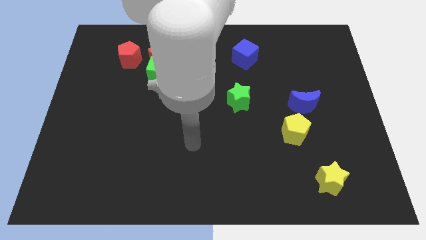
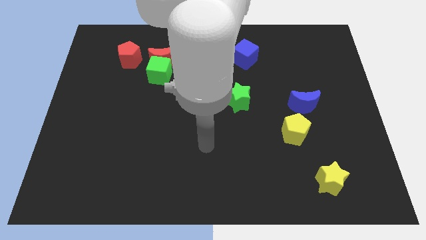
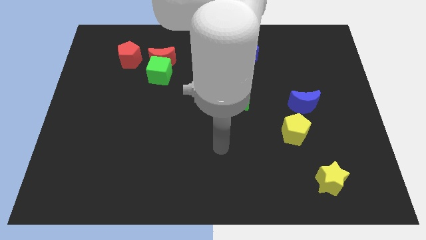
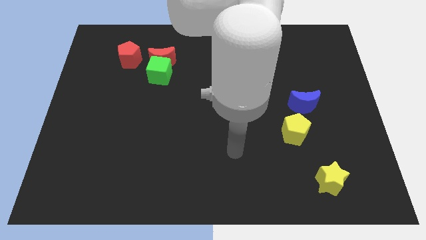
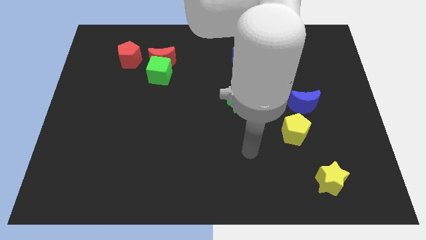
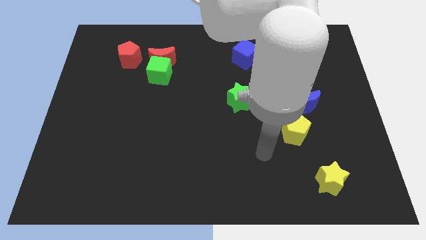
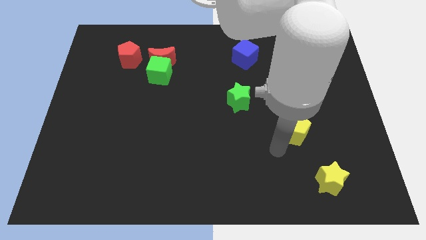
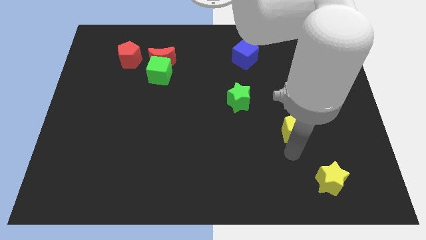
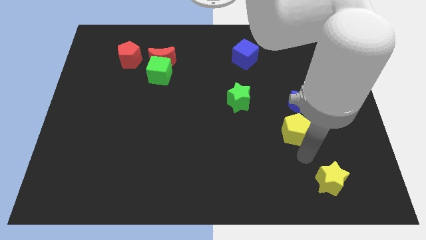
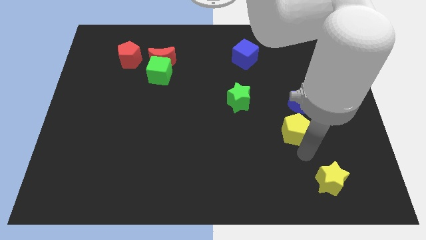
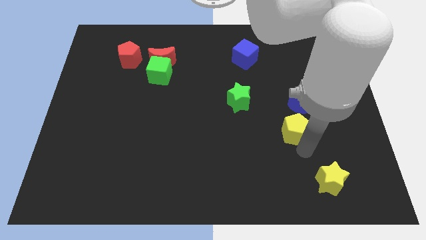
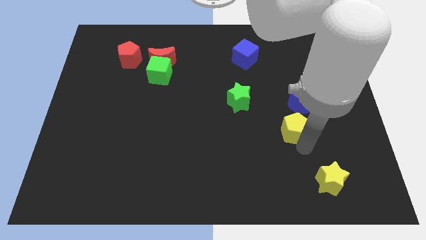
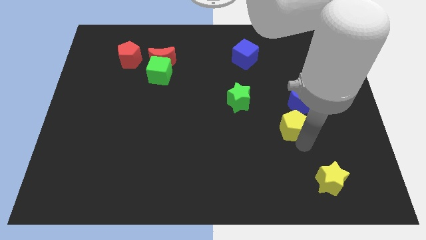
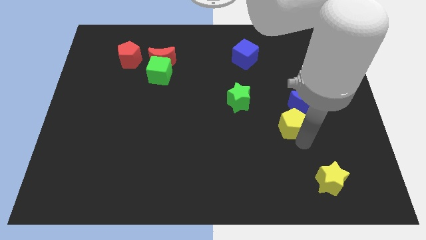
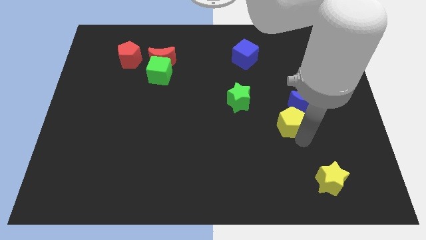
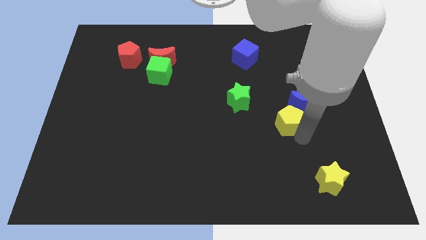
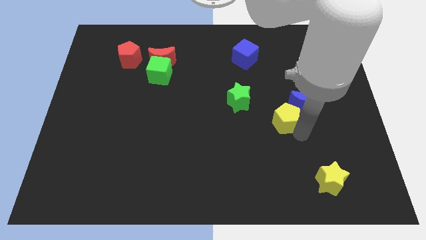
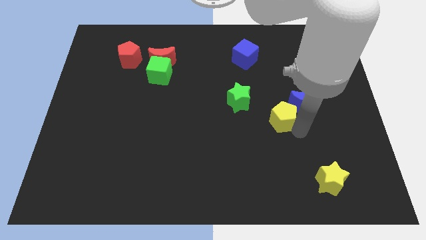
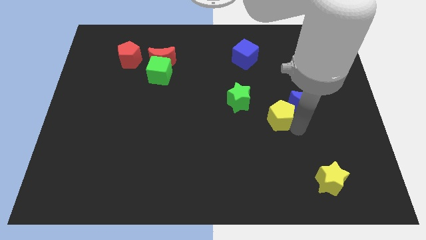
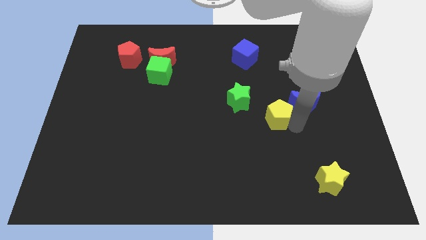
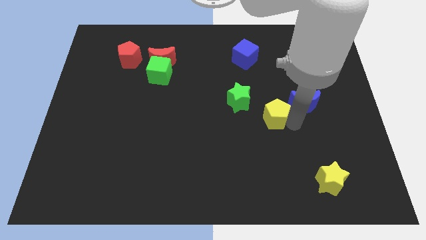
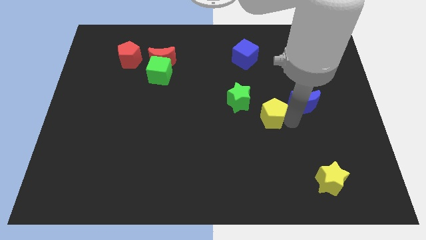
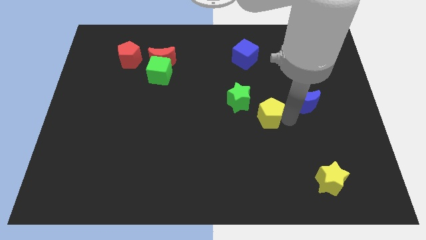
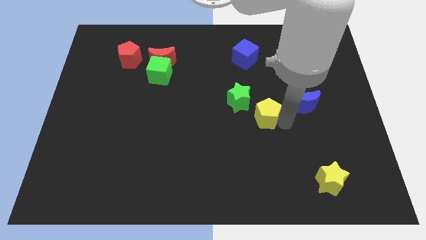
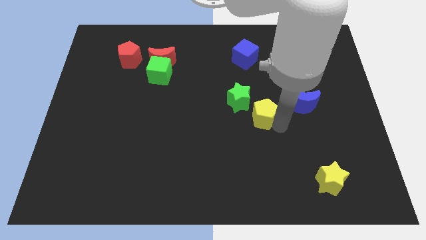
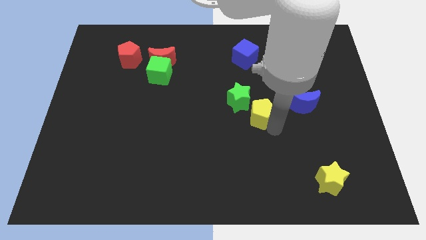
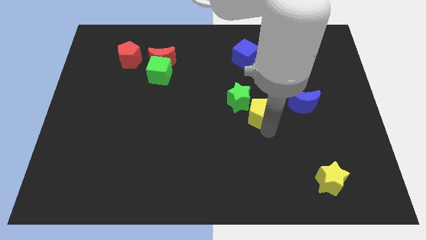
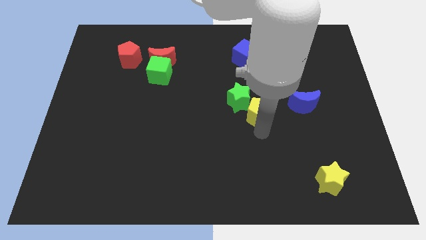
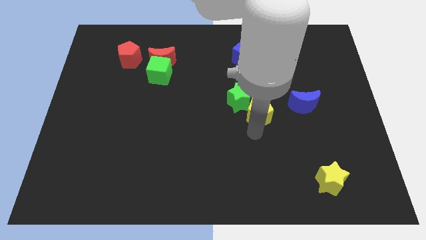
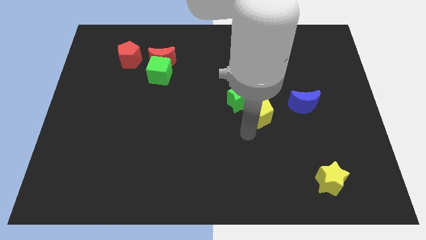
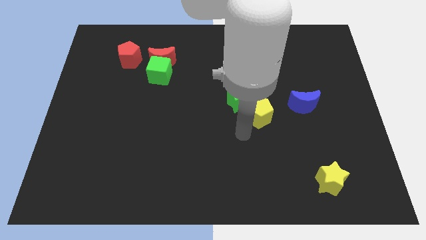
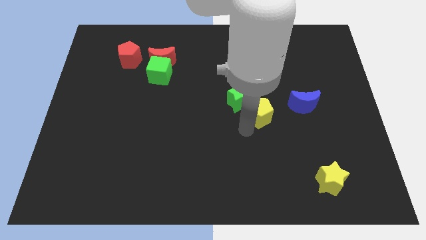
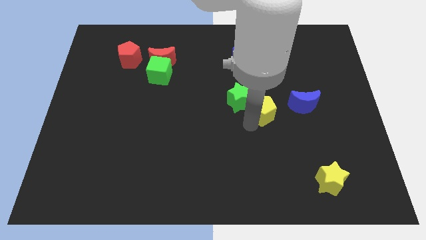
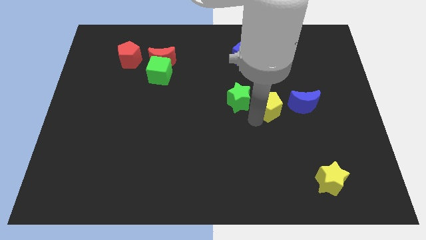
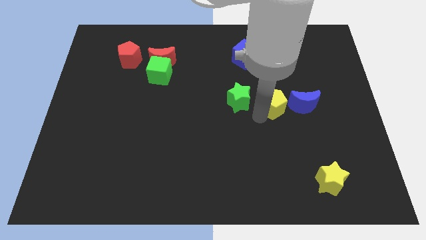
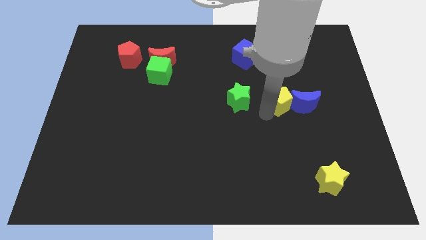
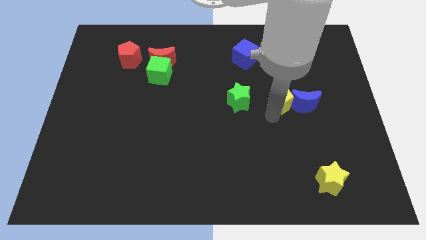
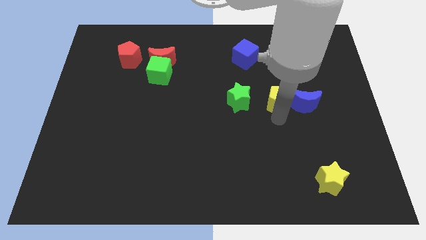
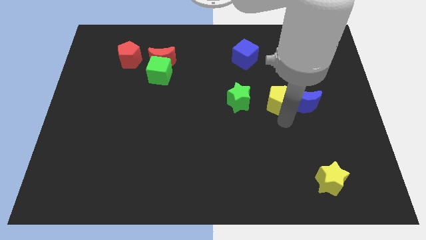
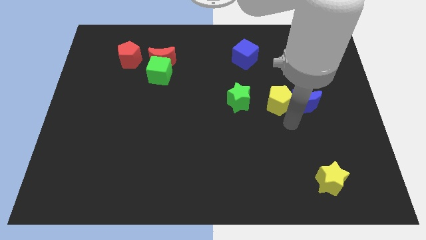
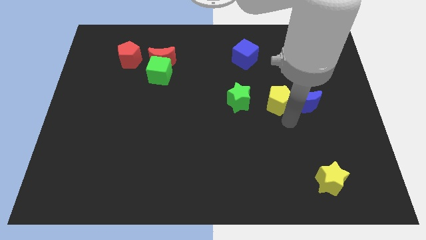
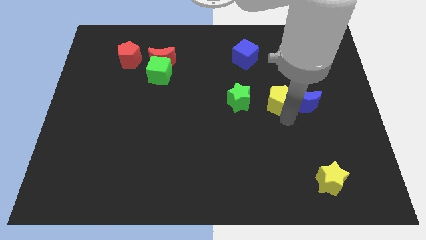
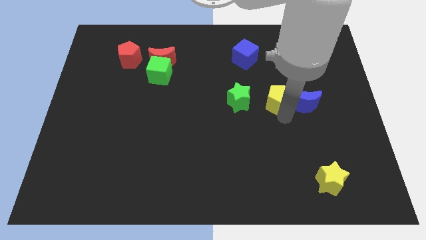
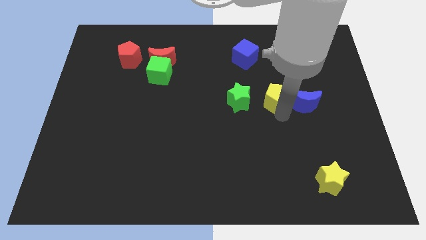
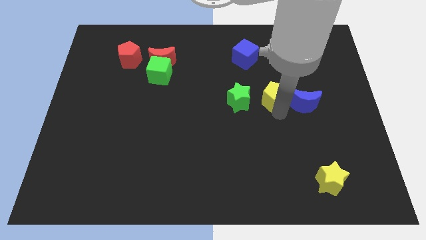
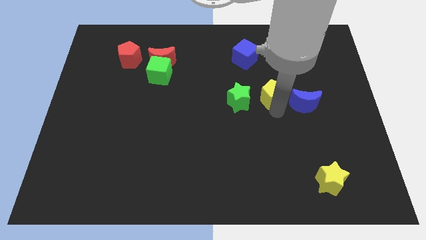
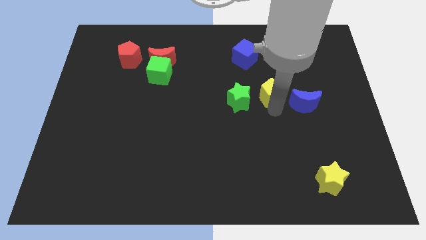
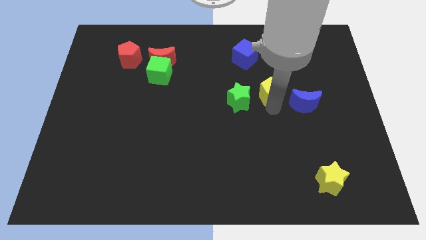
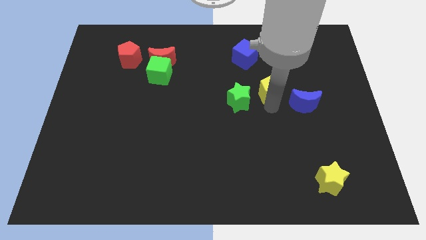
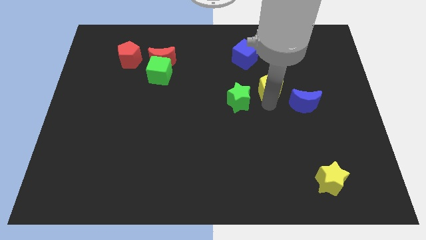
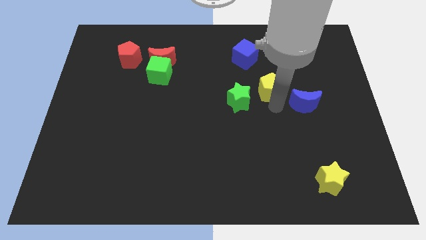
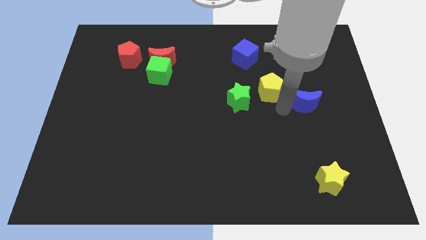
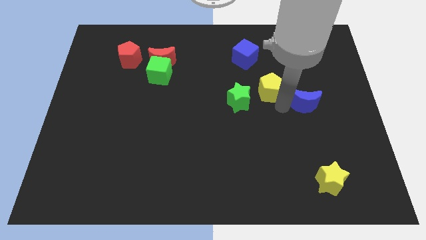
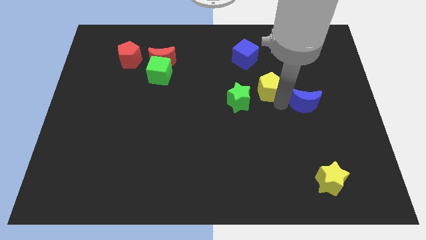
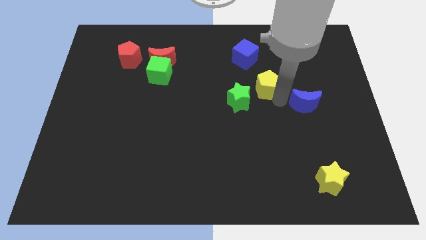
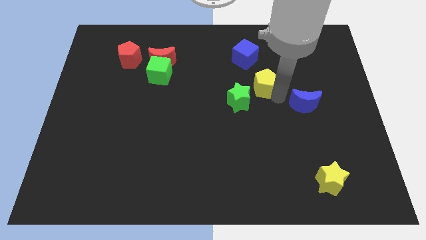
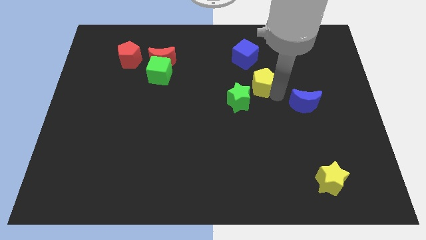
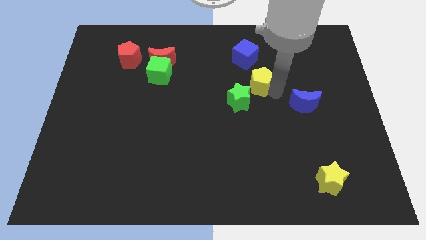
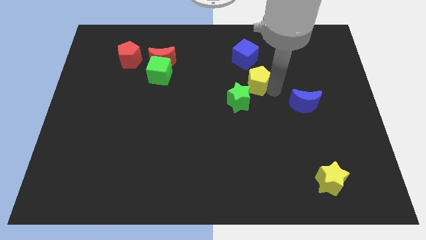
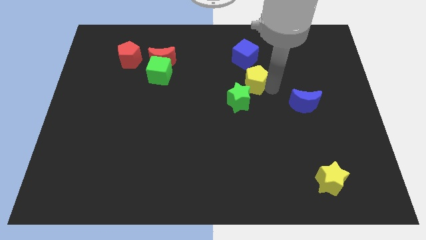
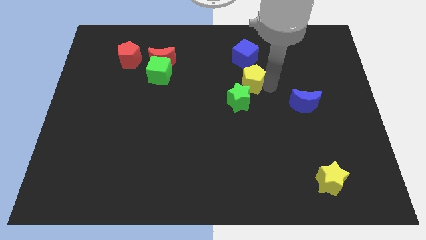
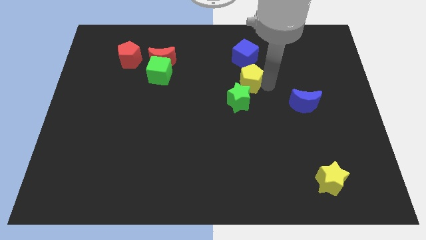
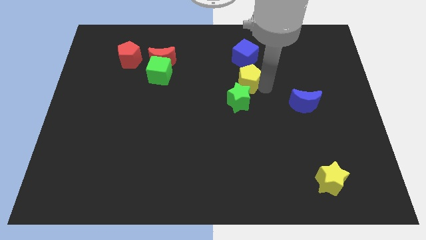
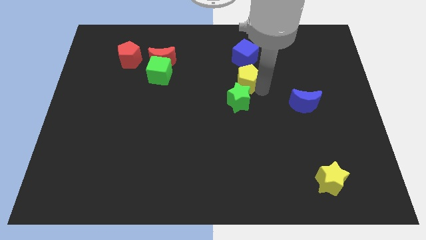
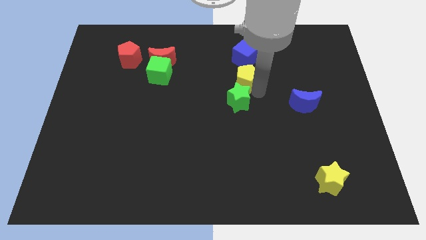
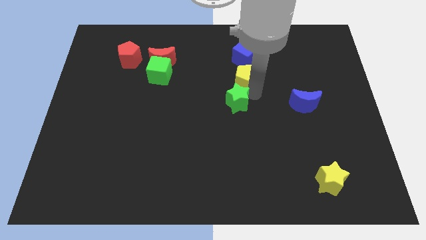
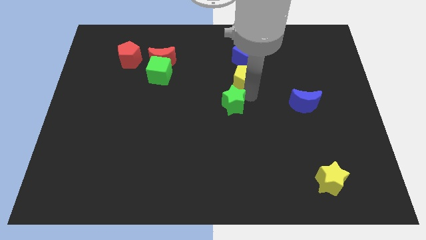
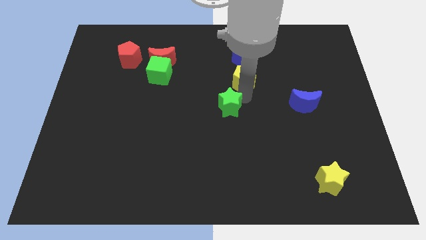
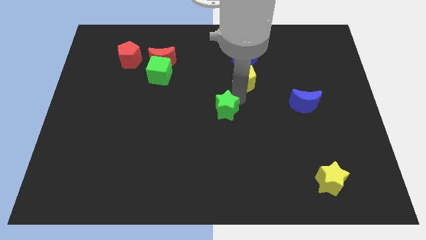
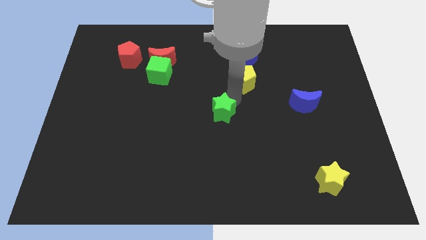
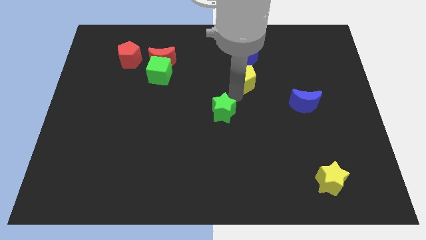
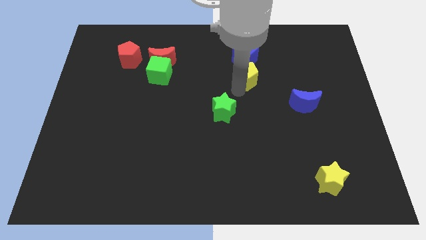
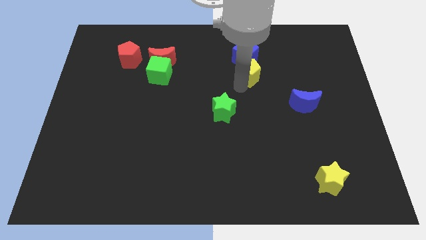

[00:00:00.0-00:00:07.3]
put the yellow pentagon close to the blue cube
